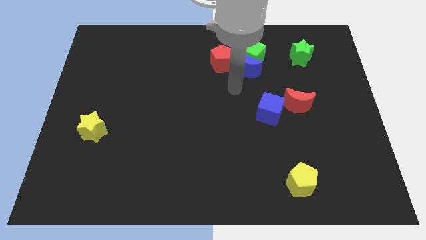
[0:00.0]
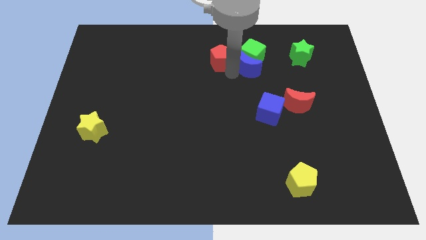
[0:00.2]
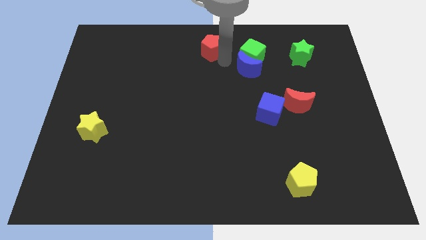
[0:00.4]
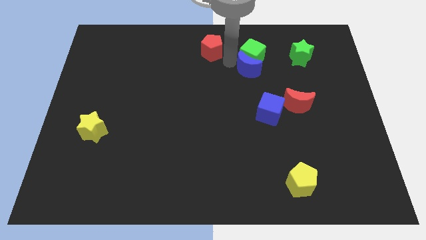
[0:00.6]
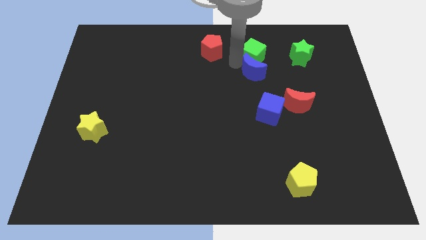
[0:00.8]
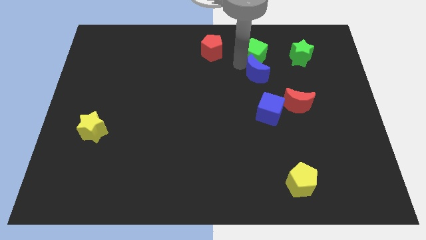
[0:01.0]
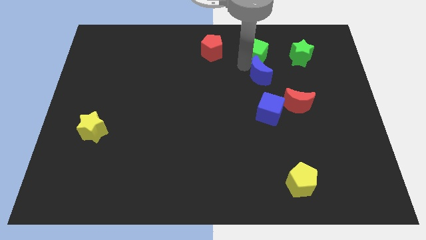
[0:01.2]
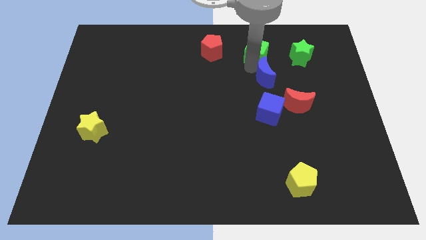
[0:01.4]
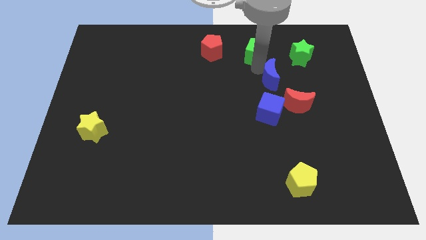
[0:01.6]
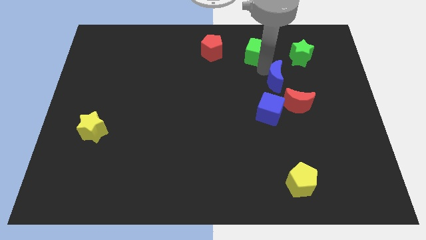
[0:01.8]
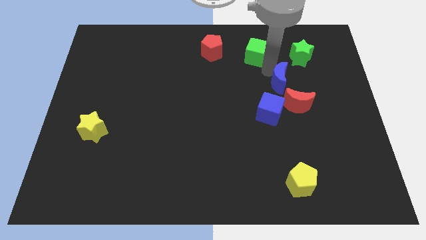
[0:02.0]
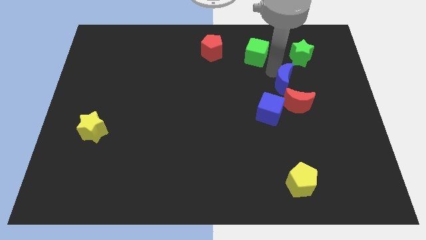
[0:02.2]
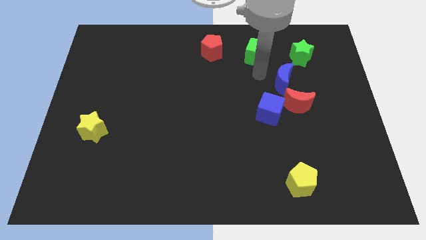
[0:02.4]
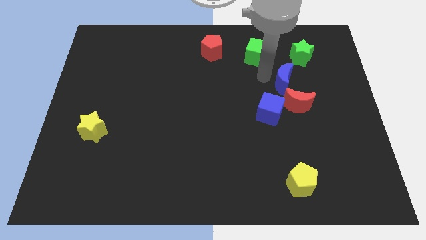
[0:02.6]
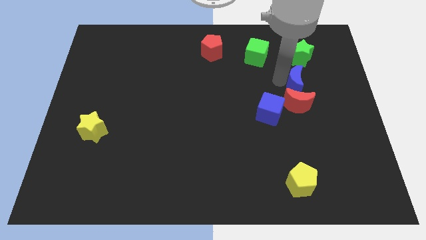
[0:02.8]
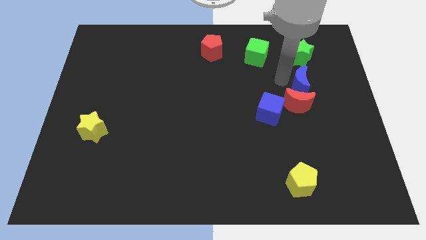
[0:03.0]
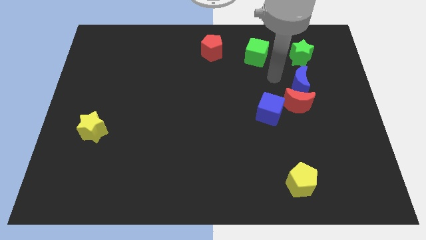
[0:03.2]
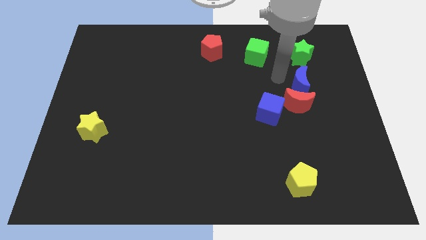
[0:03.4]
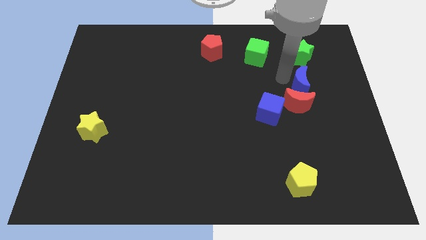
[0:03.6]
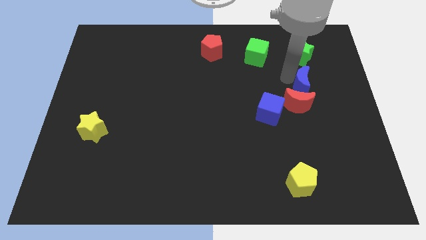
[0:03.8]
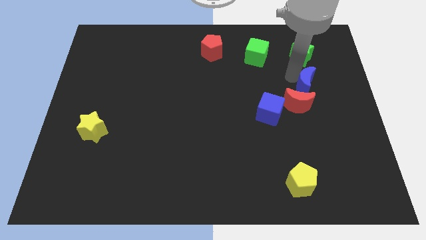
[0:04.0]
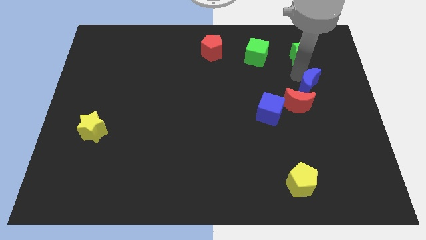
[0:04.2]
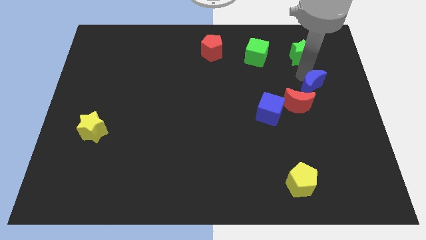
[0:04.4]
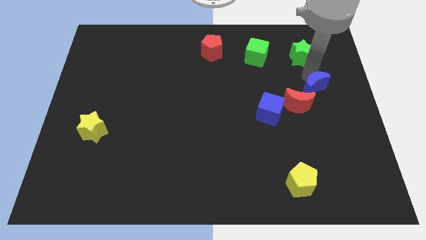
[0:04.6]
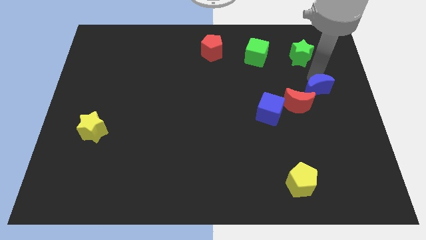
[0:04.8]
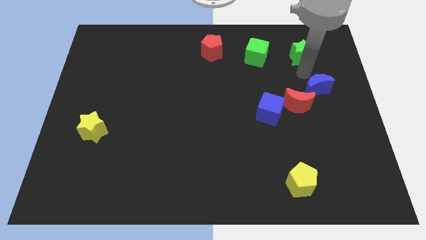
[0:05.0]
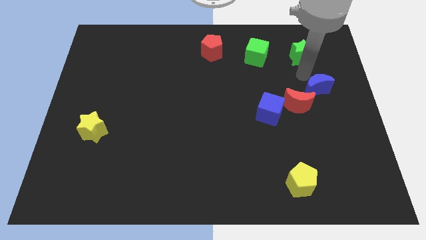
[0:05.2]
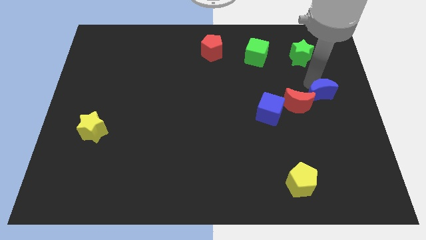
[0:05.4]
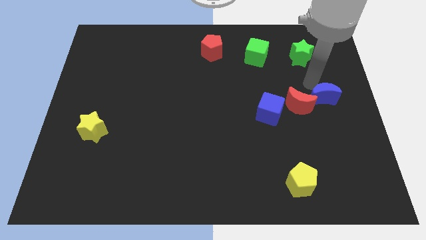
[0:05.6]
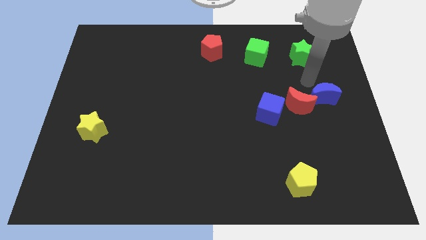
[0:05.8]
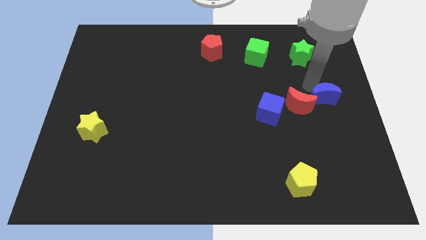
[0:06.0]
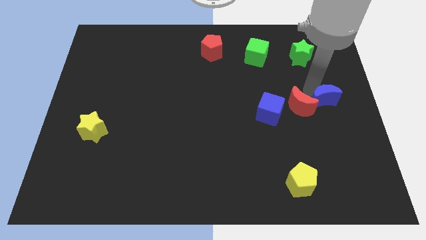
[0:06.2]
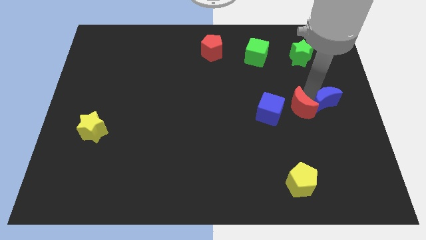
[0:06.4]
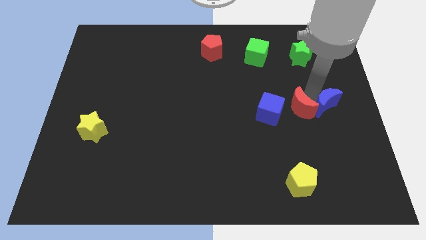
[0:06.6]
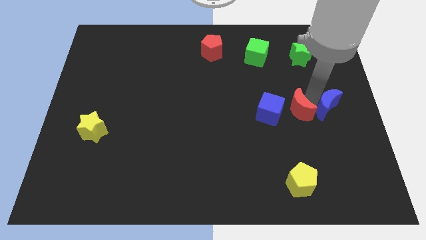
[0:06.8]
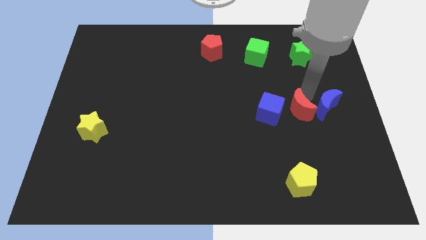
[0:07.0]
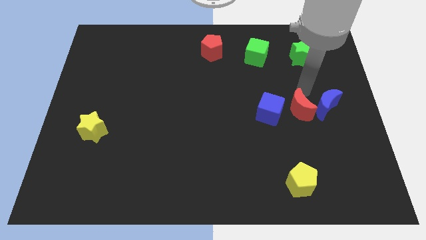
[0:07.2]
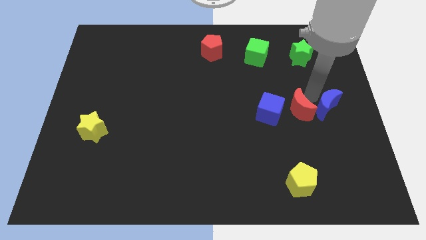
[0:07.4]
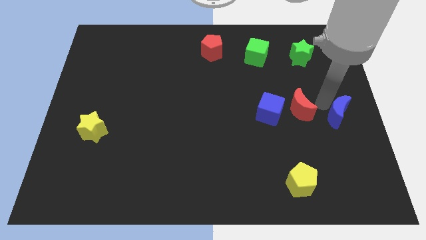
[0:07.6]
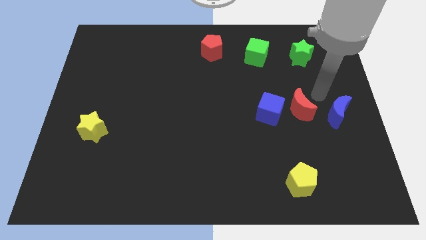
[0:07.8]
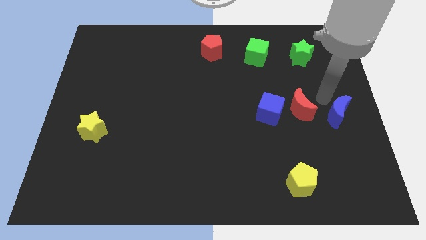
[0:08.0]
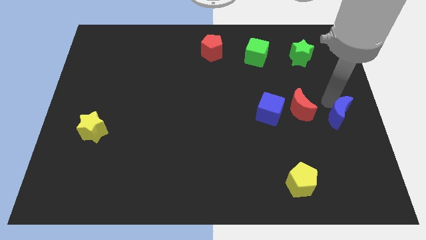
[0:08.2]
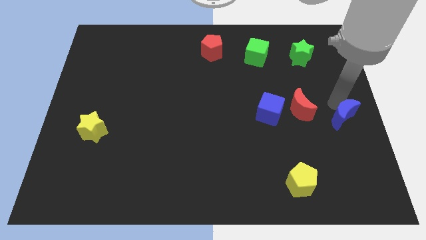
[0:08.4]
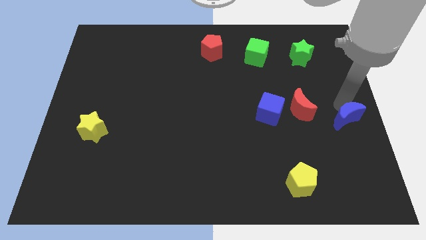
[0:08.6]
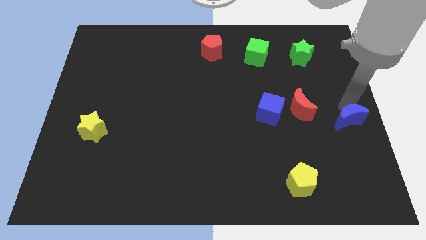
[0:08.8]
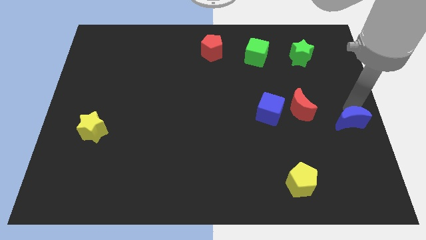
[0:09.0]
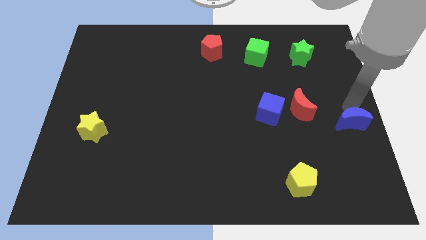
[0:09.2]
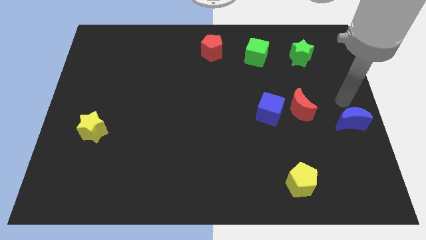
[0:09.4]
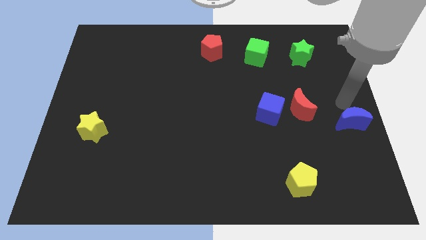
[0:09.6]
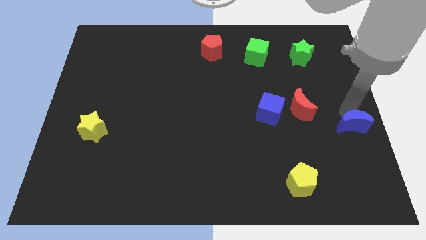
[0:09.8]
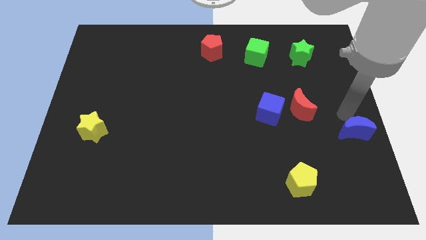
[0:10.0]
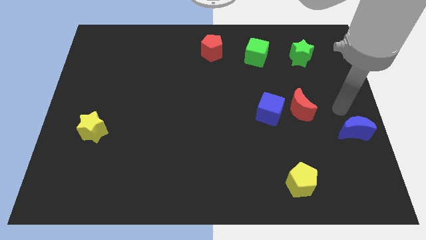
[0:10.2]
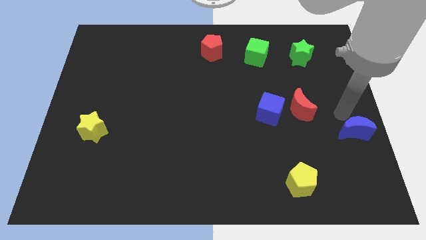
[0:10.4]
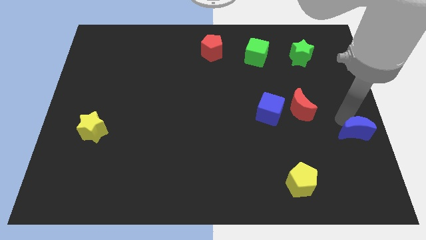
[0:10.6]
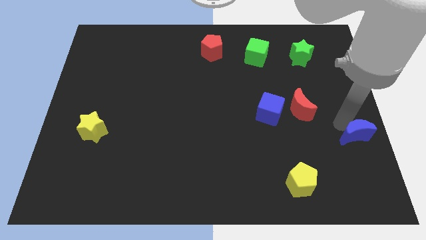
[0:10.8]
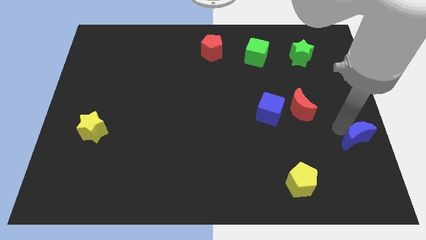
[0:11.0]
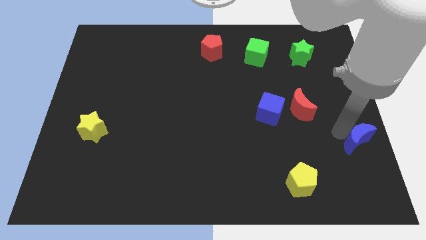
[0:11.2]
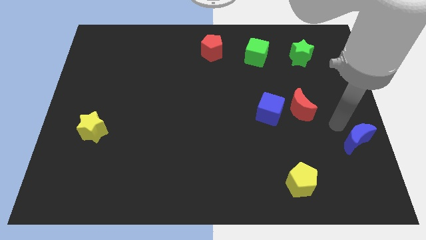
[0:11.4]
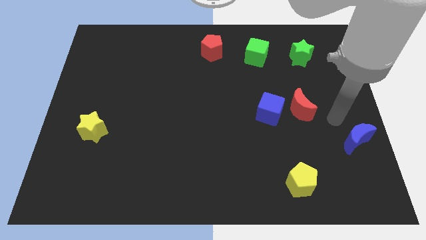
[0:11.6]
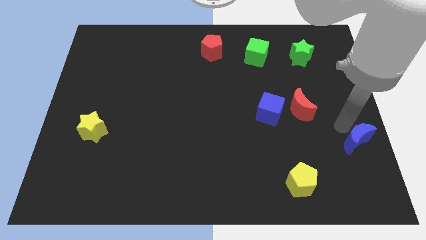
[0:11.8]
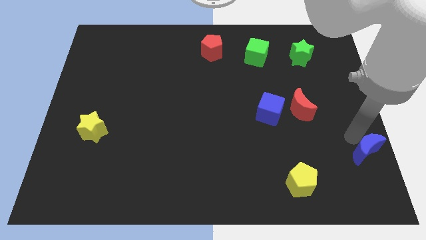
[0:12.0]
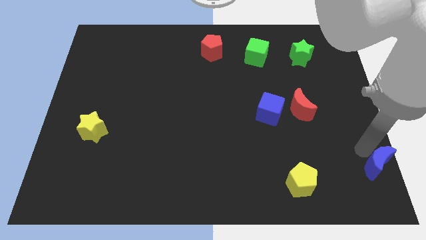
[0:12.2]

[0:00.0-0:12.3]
move the blue moon to the bottom right of the board

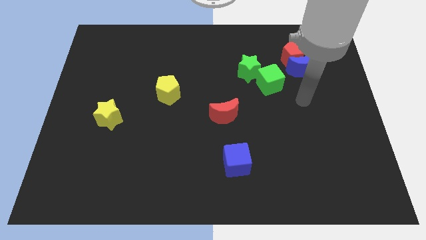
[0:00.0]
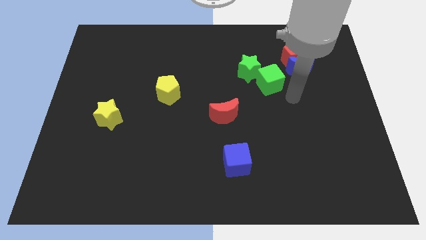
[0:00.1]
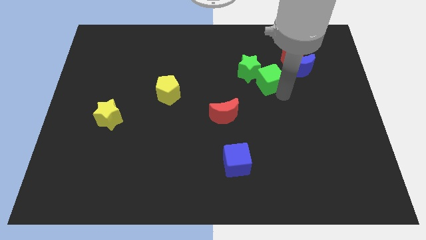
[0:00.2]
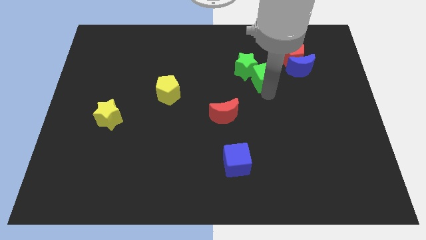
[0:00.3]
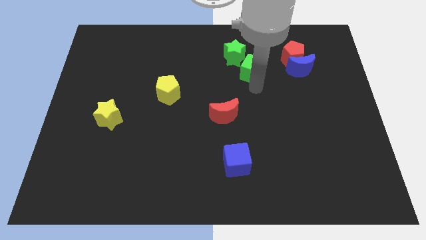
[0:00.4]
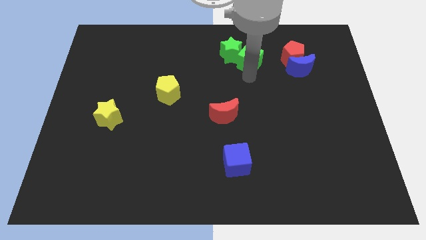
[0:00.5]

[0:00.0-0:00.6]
push the green star to the top
